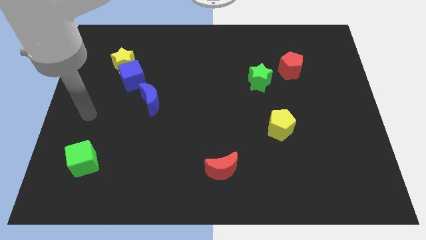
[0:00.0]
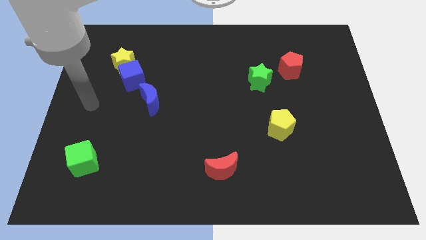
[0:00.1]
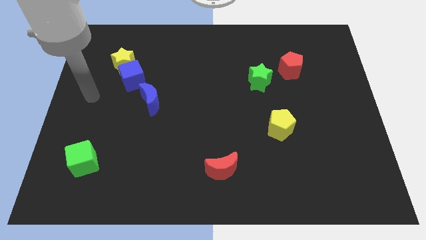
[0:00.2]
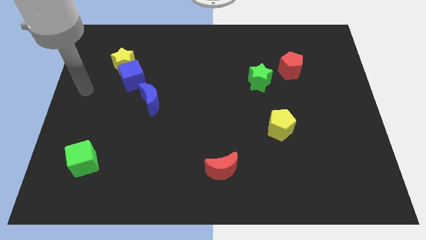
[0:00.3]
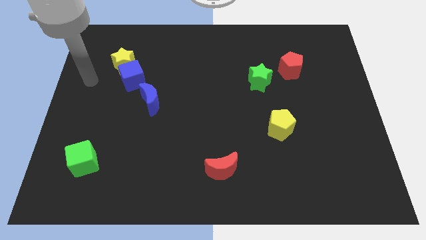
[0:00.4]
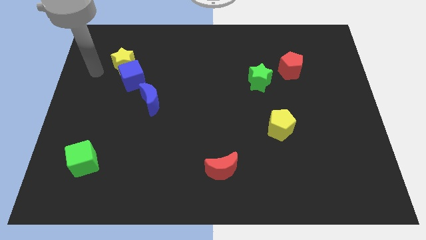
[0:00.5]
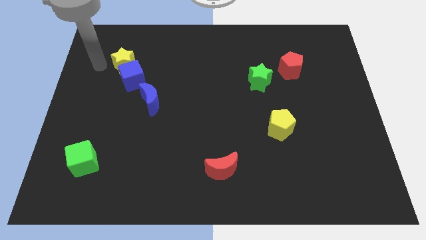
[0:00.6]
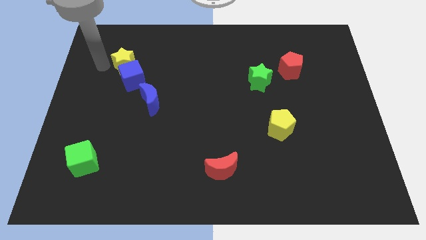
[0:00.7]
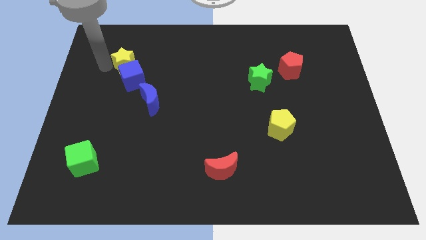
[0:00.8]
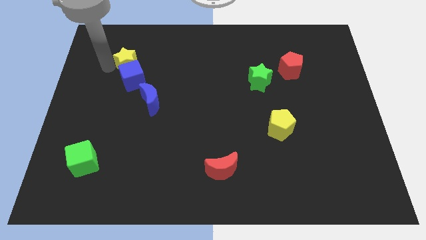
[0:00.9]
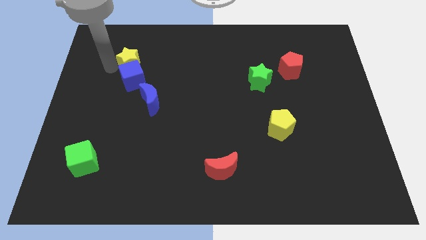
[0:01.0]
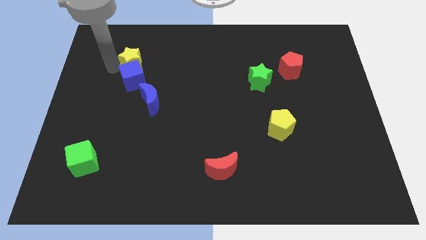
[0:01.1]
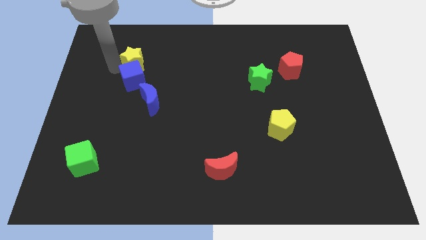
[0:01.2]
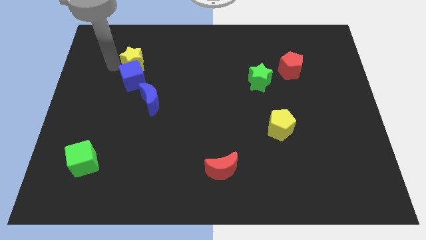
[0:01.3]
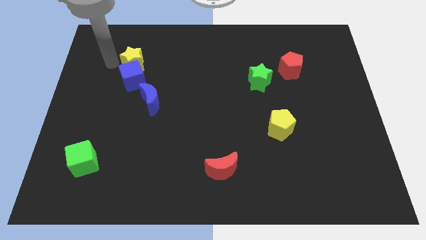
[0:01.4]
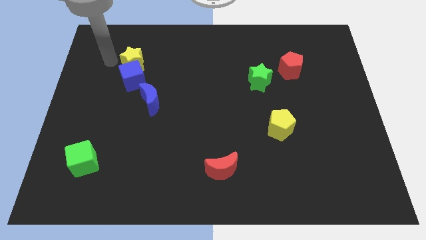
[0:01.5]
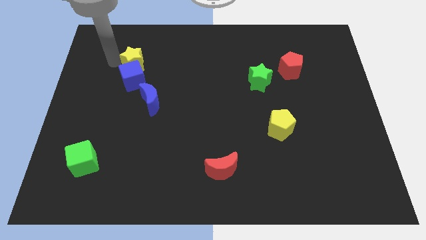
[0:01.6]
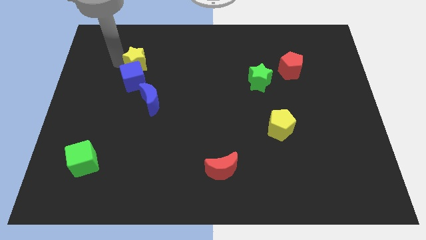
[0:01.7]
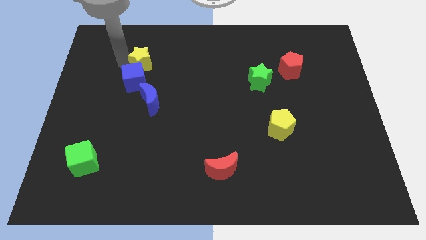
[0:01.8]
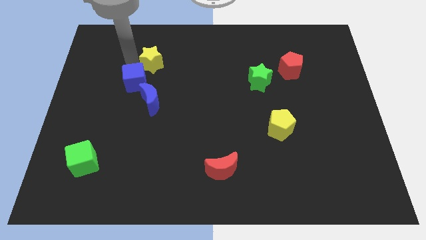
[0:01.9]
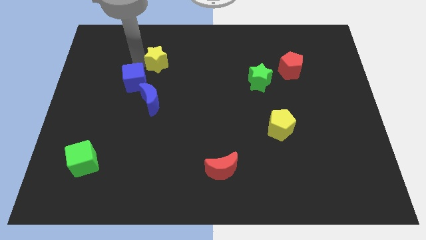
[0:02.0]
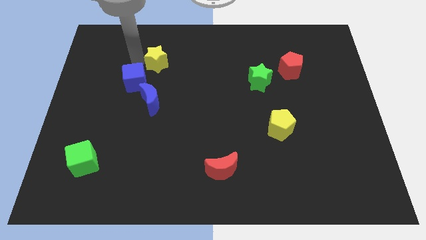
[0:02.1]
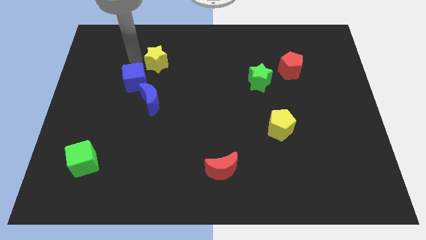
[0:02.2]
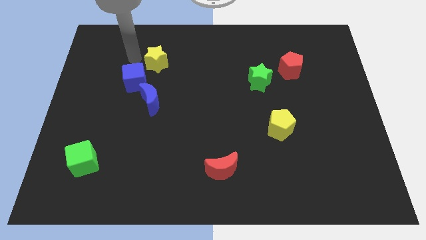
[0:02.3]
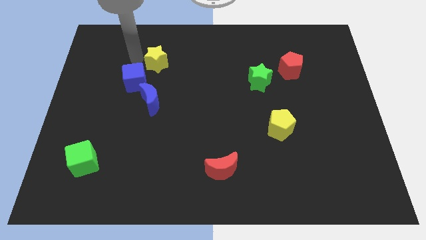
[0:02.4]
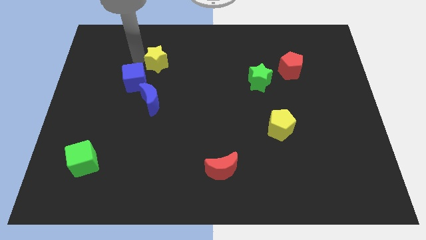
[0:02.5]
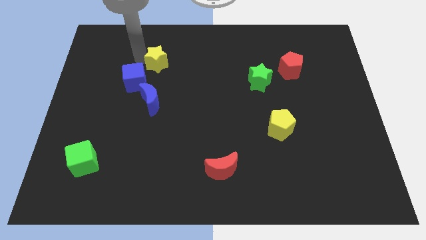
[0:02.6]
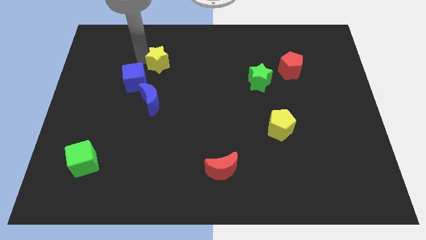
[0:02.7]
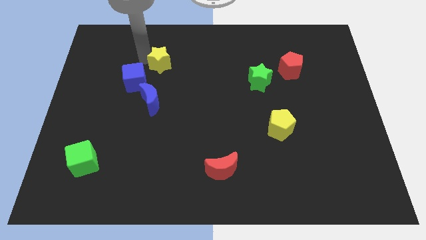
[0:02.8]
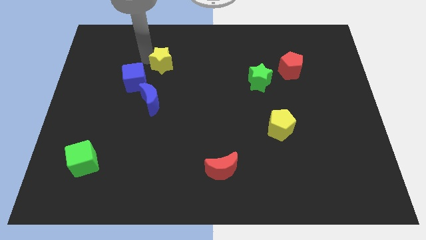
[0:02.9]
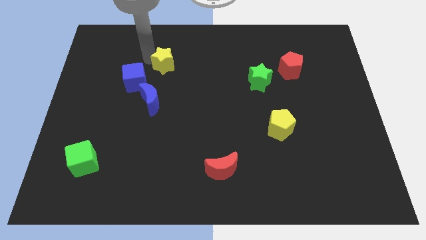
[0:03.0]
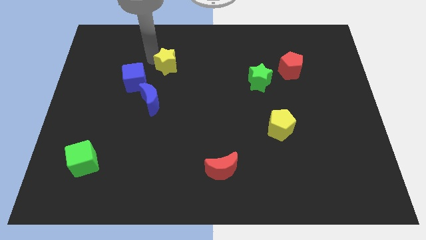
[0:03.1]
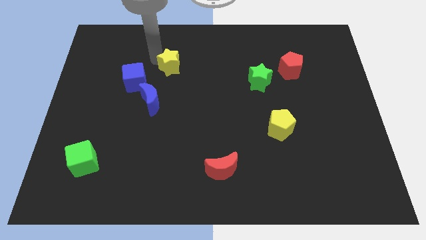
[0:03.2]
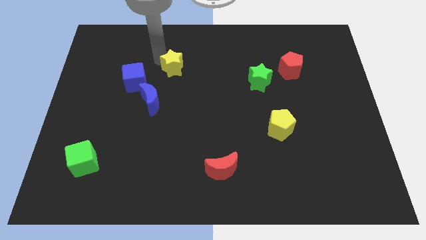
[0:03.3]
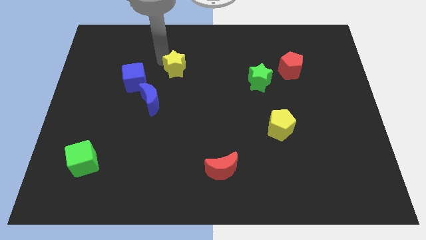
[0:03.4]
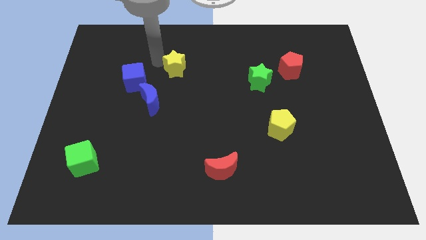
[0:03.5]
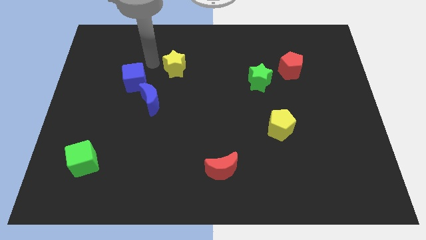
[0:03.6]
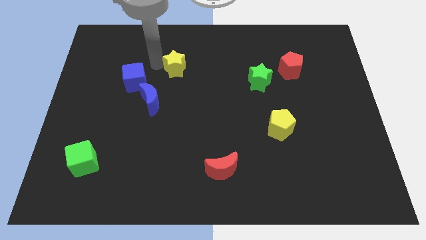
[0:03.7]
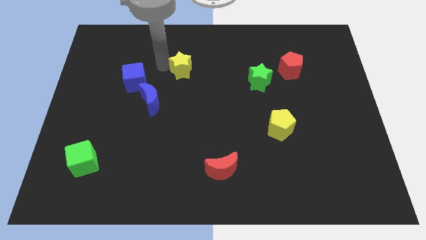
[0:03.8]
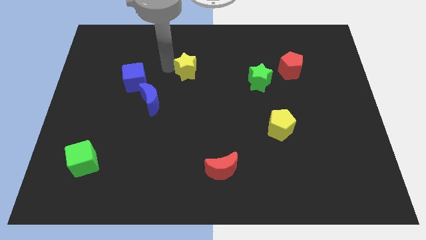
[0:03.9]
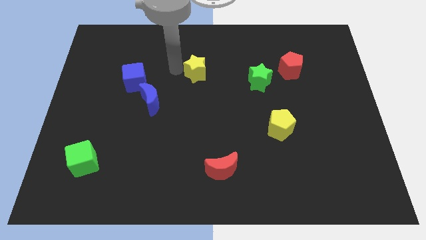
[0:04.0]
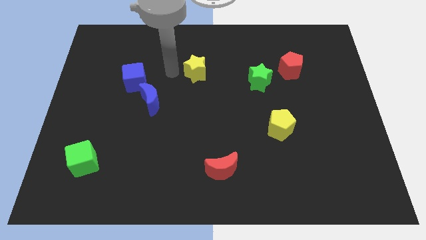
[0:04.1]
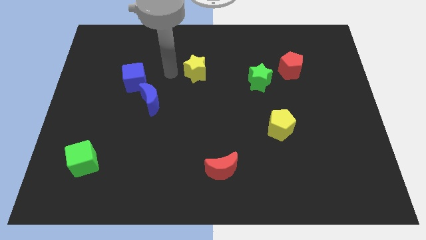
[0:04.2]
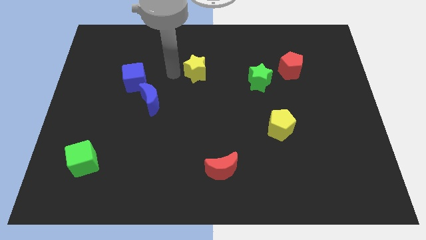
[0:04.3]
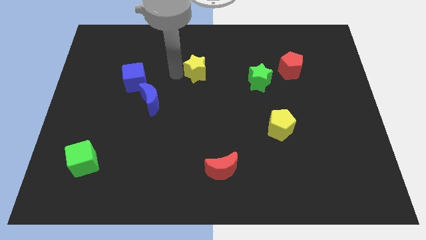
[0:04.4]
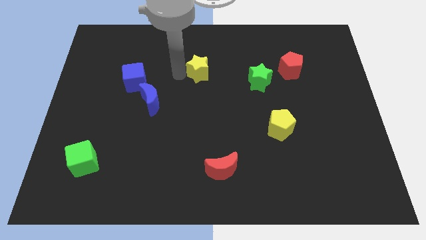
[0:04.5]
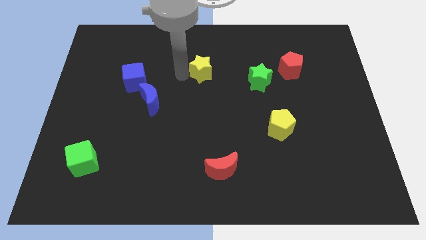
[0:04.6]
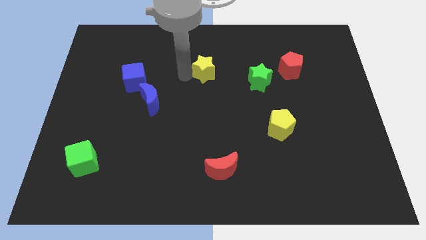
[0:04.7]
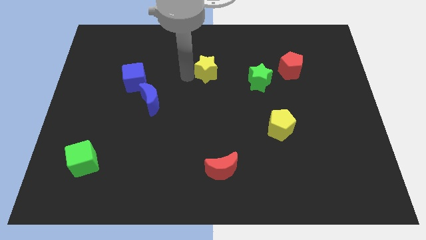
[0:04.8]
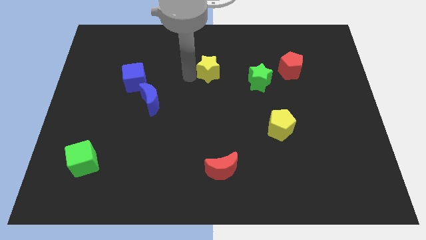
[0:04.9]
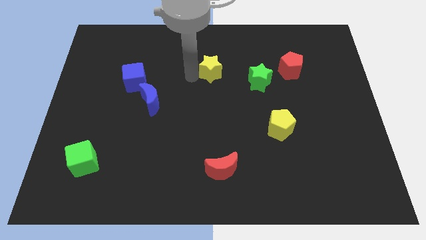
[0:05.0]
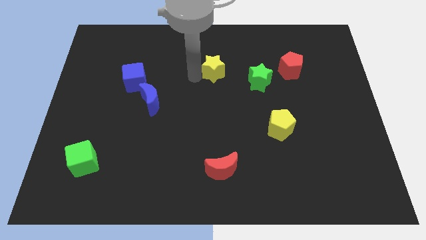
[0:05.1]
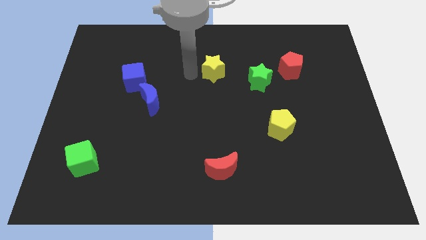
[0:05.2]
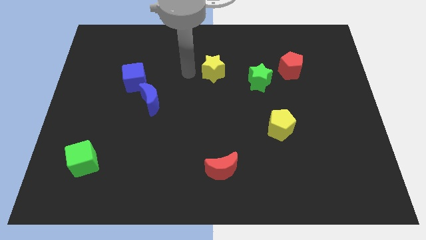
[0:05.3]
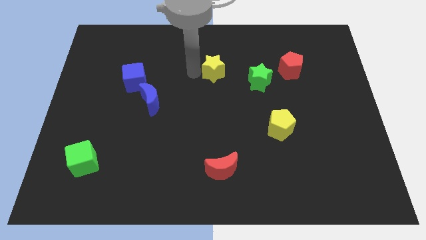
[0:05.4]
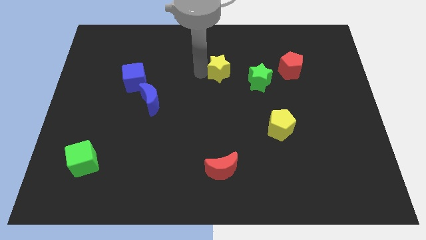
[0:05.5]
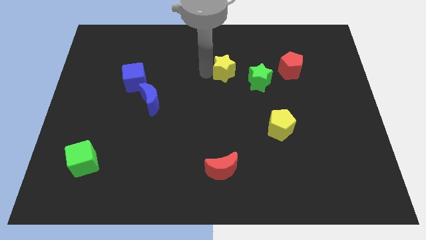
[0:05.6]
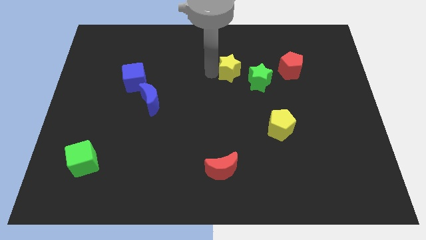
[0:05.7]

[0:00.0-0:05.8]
put the yellow star to the left of the red pentagon

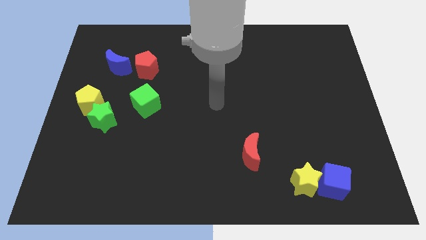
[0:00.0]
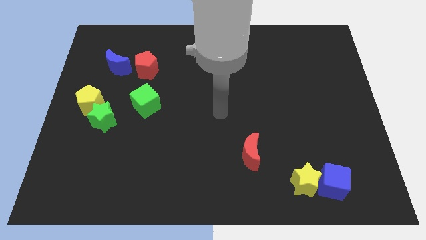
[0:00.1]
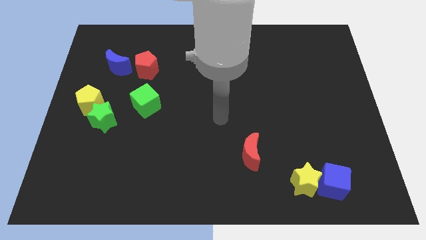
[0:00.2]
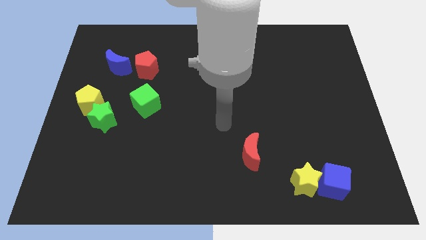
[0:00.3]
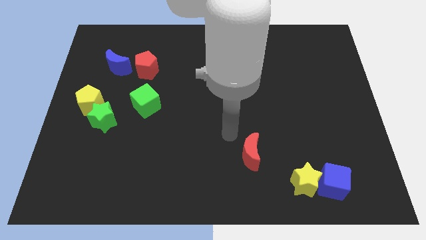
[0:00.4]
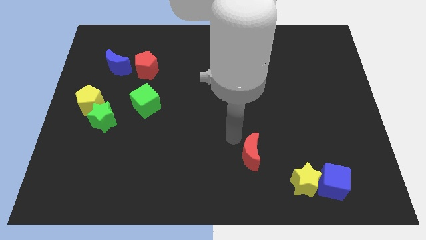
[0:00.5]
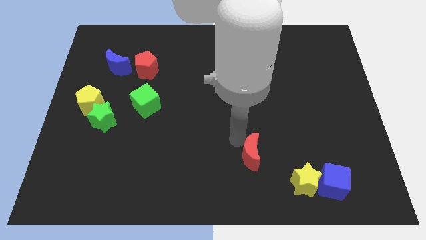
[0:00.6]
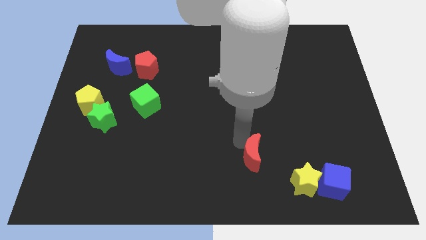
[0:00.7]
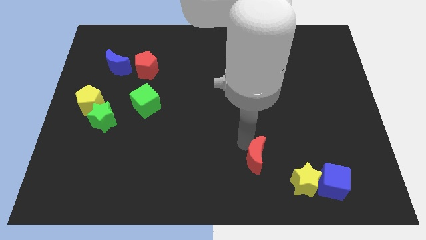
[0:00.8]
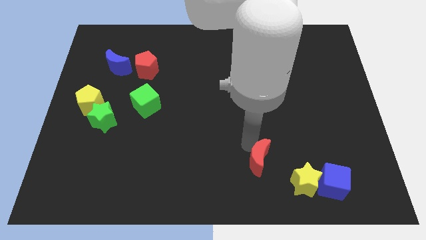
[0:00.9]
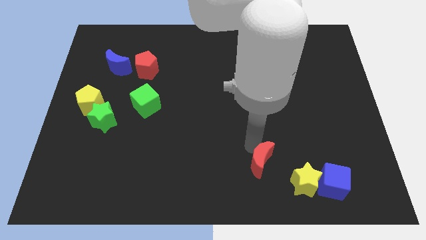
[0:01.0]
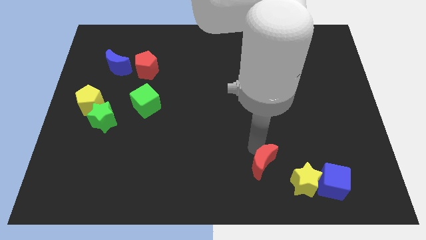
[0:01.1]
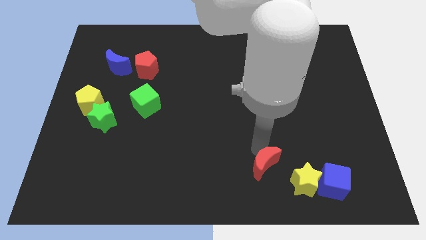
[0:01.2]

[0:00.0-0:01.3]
slide the red moon to the left of the blue cube

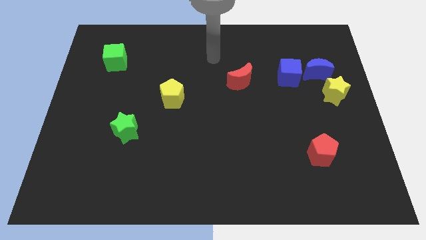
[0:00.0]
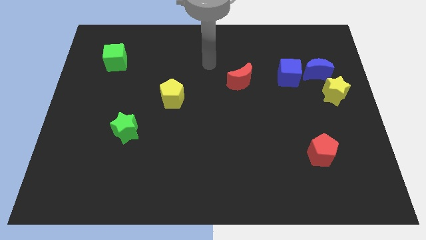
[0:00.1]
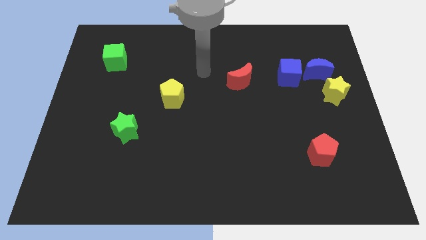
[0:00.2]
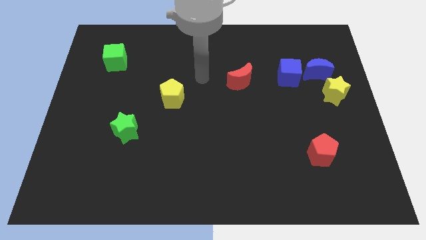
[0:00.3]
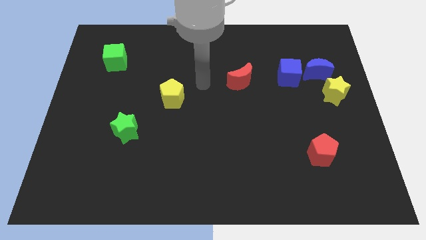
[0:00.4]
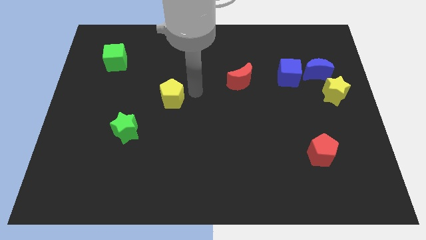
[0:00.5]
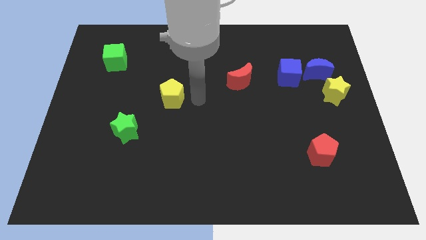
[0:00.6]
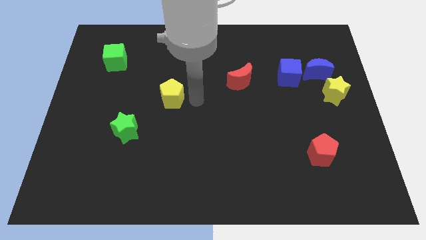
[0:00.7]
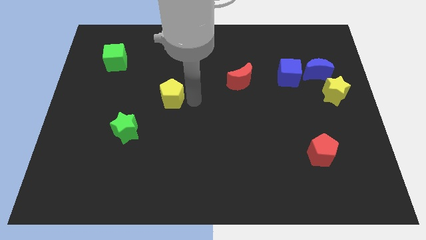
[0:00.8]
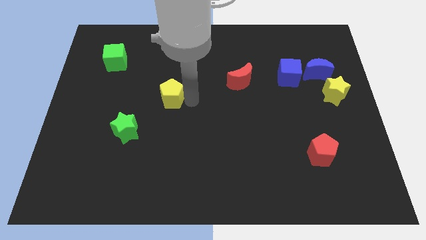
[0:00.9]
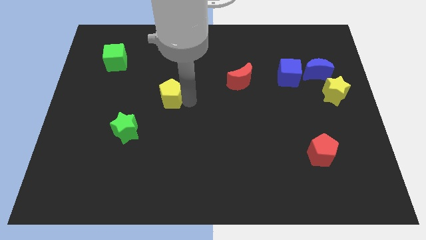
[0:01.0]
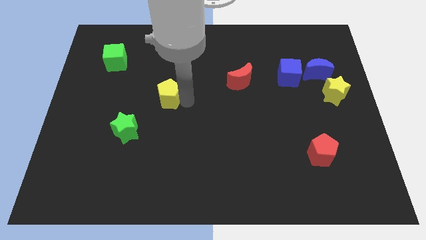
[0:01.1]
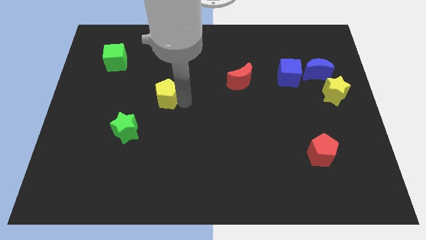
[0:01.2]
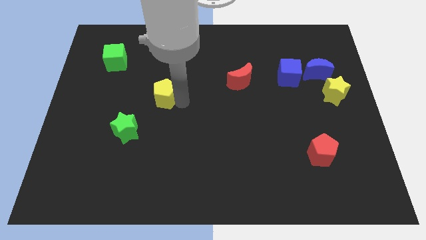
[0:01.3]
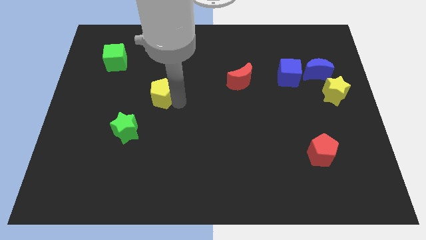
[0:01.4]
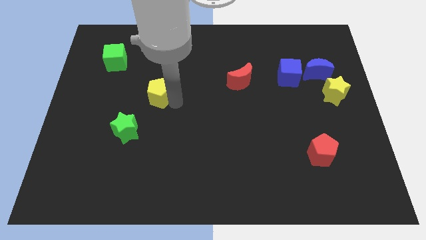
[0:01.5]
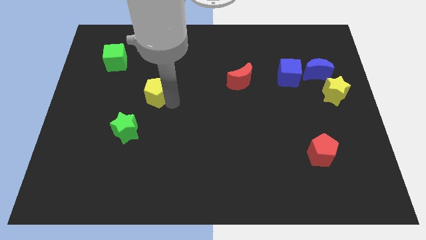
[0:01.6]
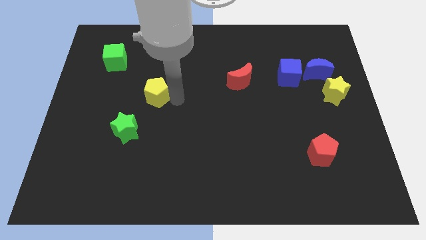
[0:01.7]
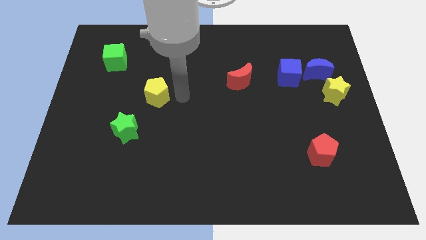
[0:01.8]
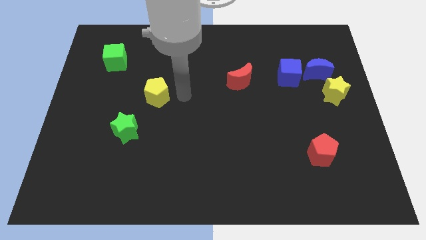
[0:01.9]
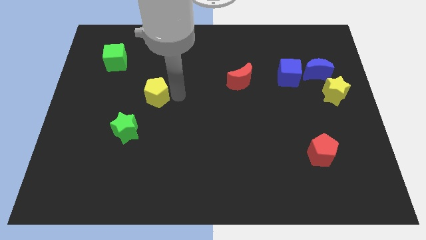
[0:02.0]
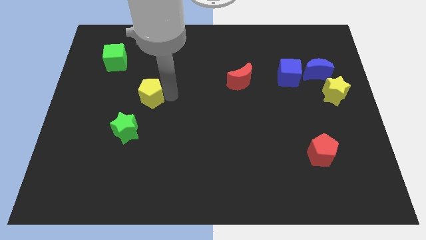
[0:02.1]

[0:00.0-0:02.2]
slide the yellow pentagon above the green star
